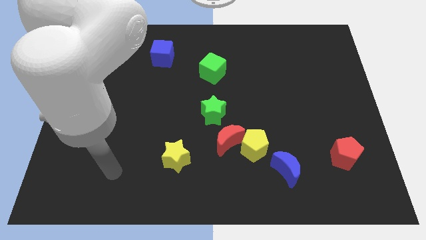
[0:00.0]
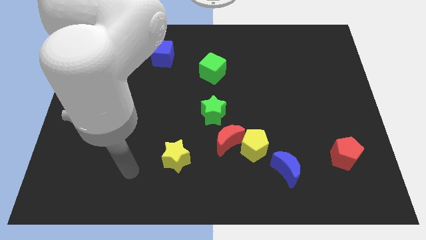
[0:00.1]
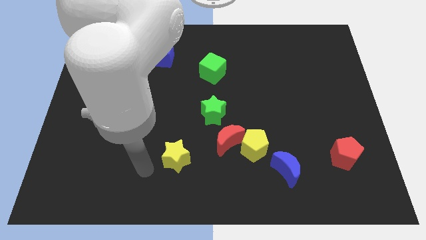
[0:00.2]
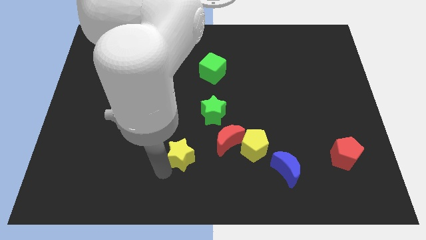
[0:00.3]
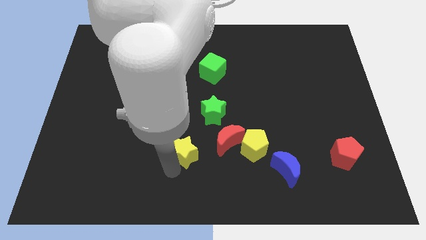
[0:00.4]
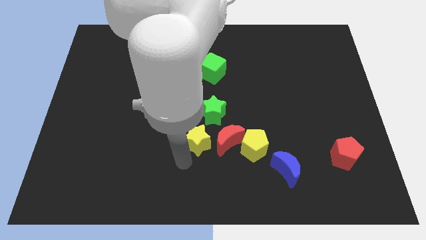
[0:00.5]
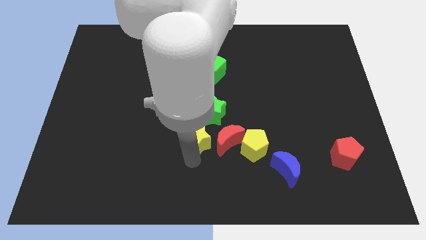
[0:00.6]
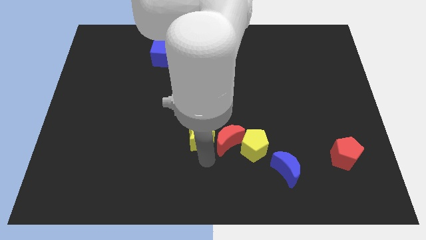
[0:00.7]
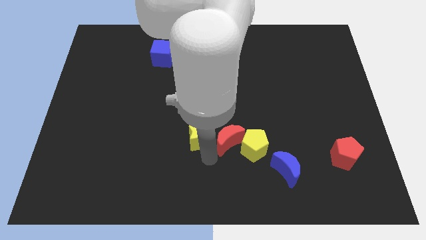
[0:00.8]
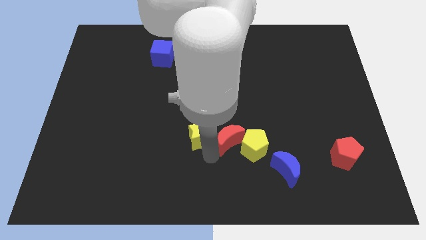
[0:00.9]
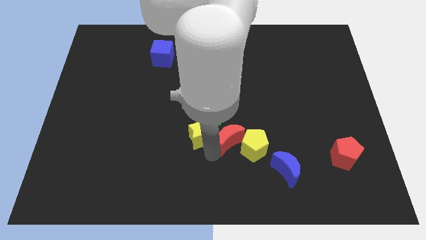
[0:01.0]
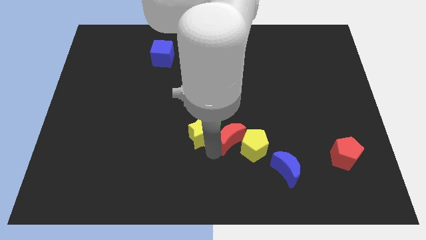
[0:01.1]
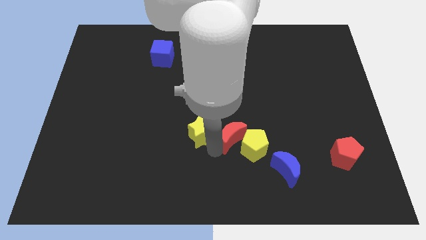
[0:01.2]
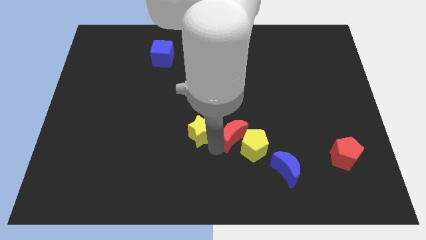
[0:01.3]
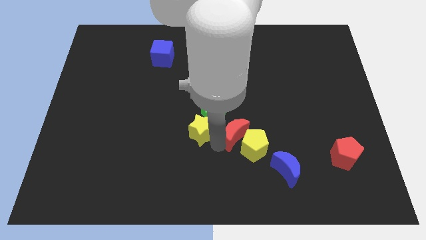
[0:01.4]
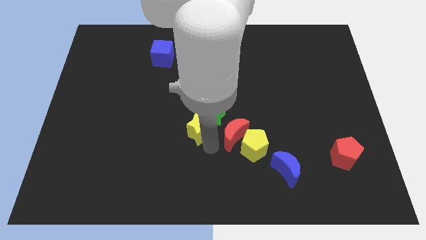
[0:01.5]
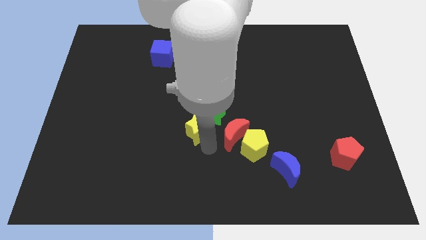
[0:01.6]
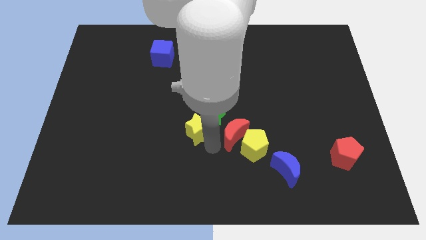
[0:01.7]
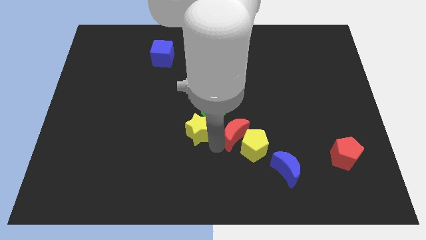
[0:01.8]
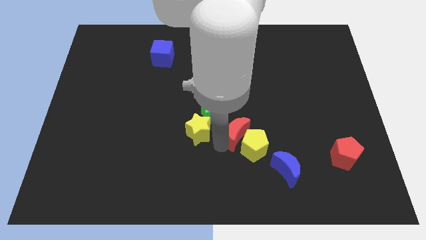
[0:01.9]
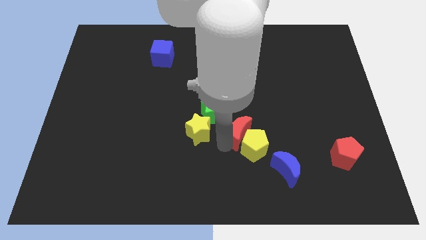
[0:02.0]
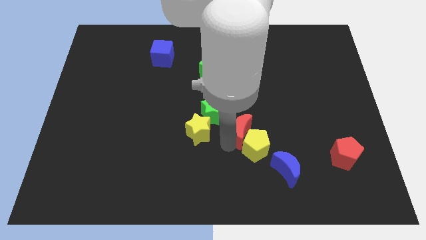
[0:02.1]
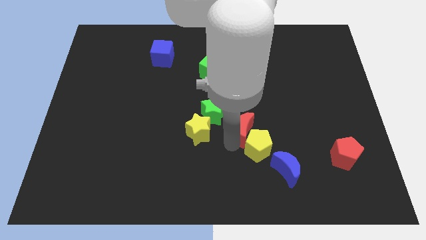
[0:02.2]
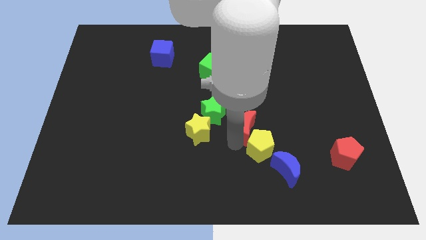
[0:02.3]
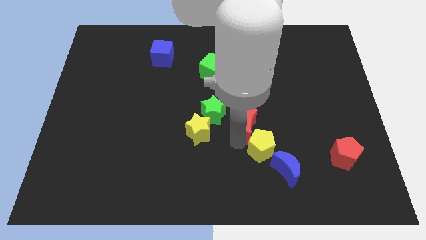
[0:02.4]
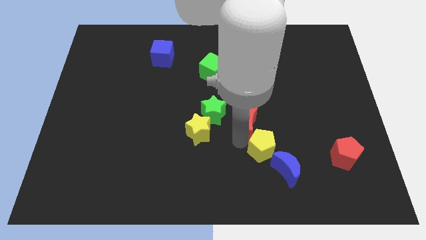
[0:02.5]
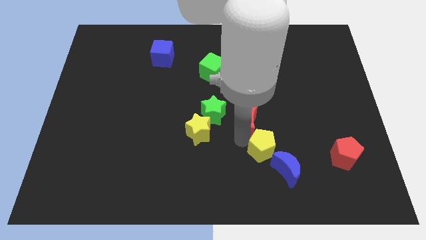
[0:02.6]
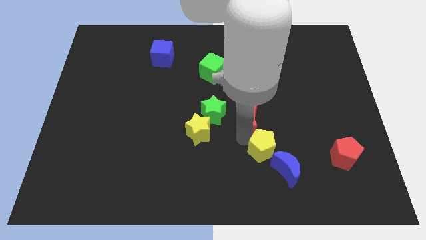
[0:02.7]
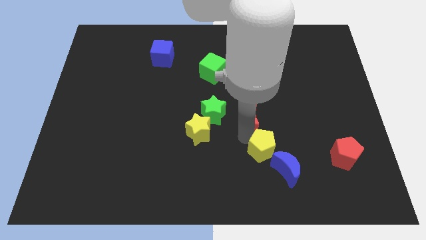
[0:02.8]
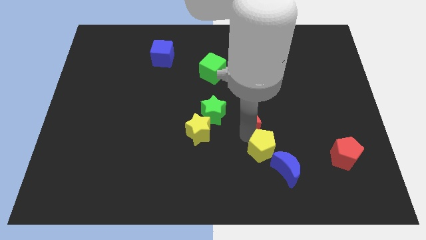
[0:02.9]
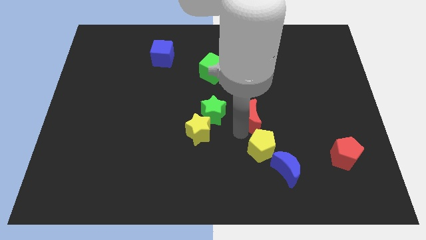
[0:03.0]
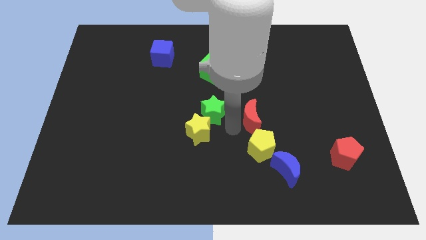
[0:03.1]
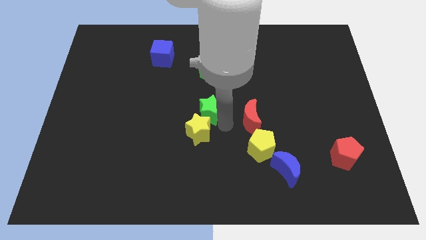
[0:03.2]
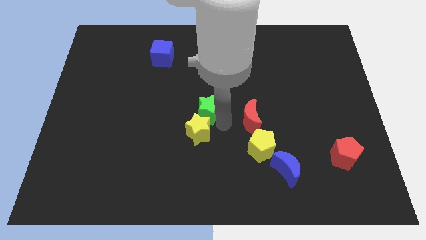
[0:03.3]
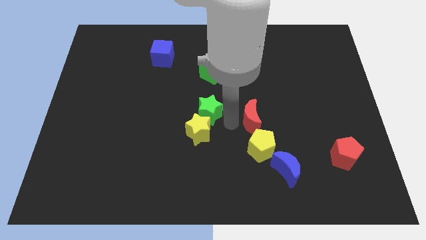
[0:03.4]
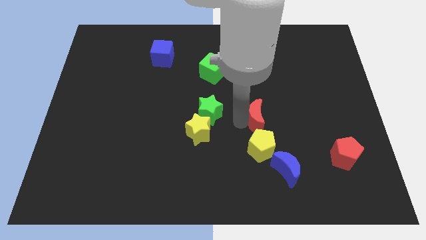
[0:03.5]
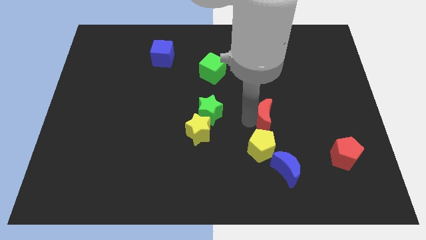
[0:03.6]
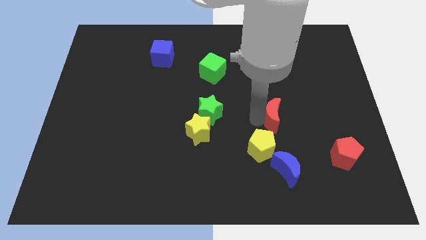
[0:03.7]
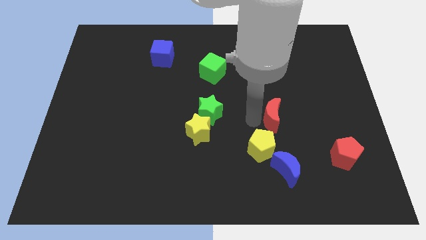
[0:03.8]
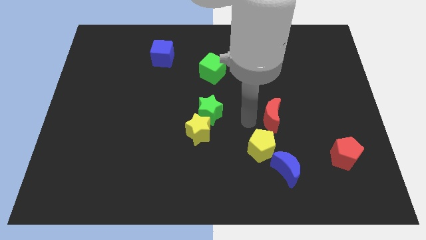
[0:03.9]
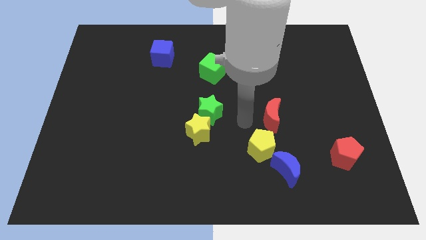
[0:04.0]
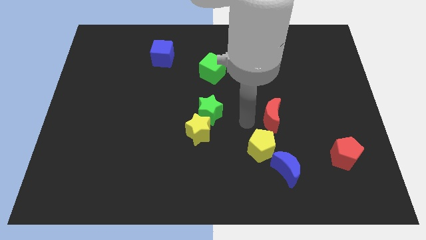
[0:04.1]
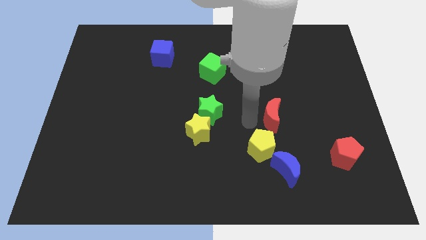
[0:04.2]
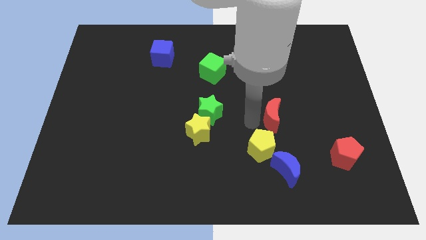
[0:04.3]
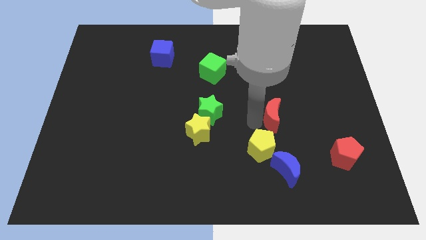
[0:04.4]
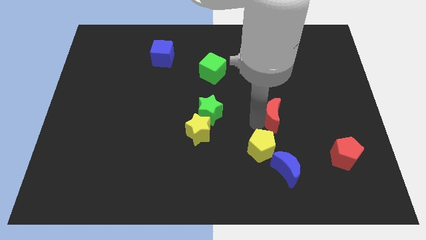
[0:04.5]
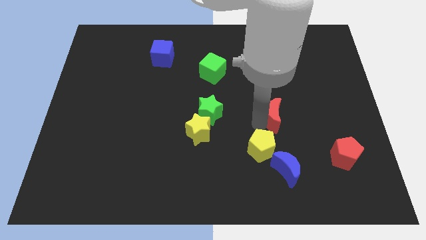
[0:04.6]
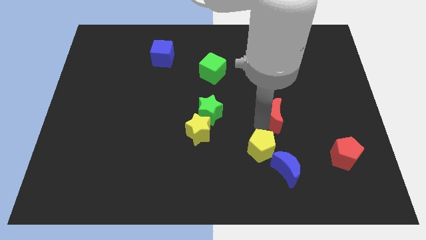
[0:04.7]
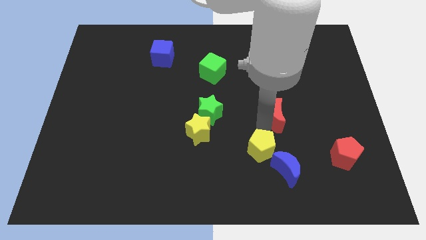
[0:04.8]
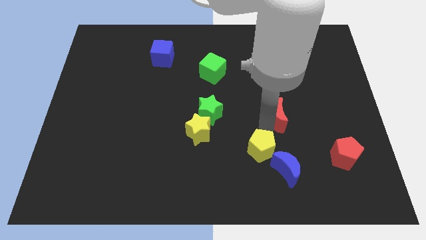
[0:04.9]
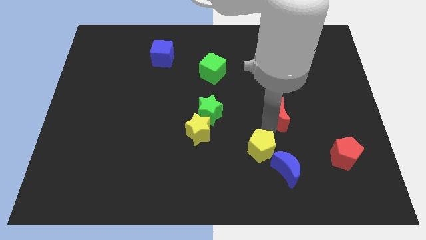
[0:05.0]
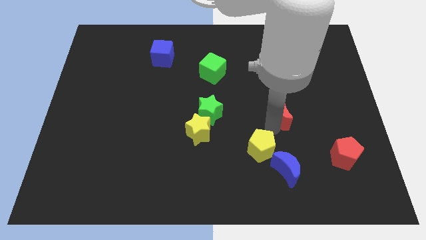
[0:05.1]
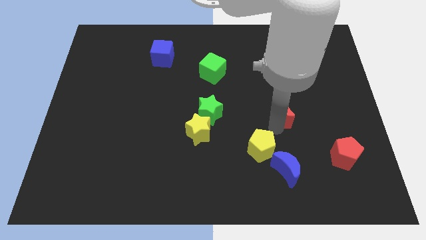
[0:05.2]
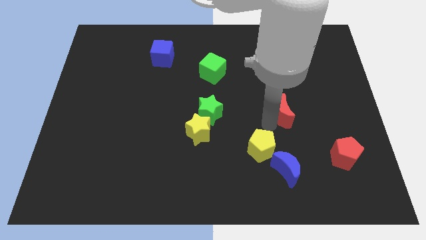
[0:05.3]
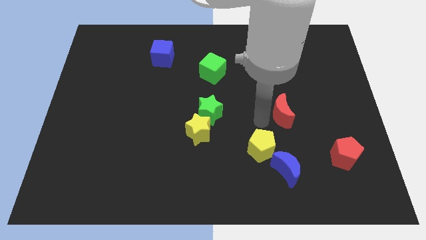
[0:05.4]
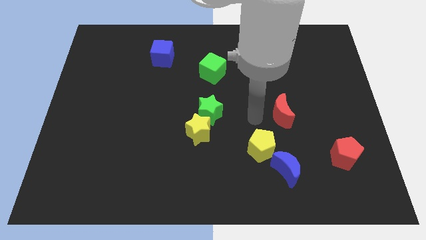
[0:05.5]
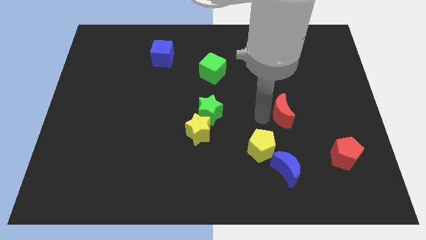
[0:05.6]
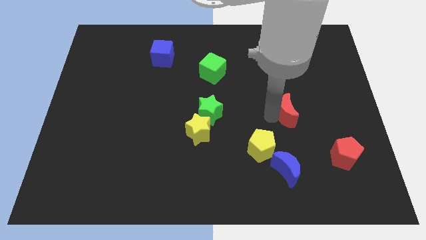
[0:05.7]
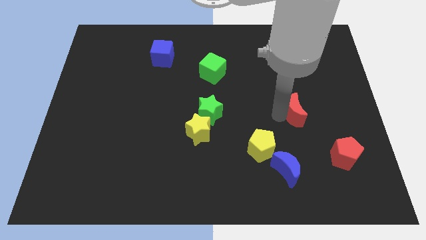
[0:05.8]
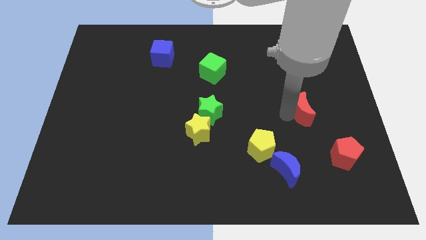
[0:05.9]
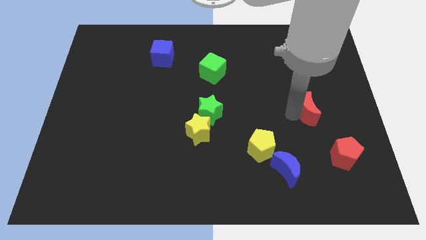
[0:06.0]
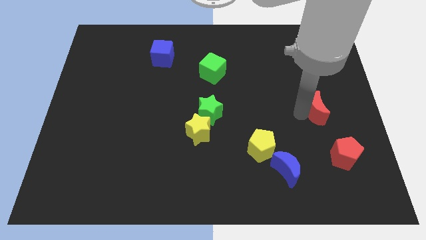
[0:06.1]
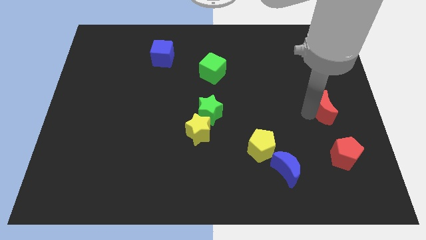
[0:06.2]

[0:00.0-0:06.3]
move the red moon to the center right
